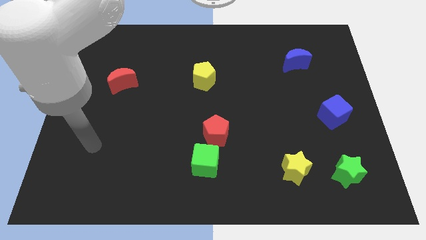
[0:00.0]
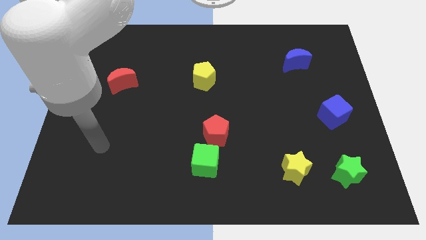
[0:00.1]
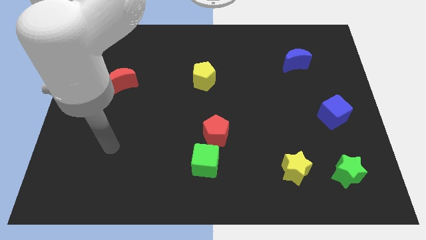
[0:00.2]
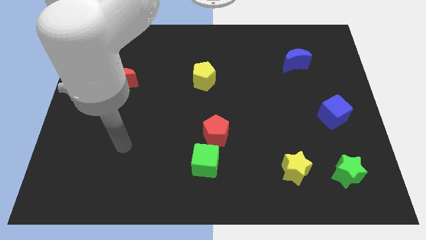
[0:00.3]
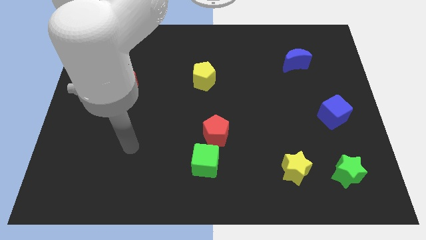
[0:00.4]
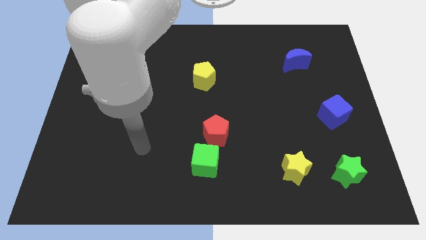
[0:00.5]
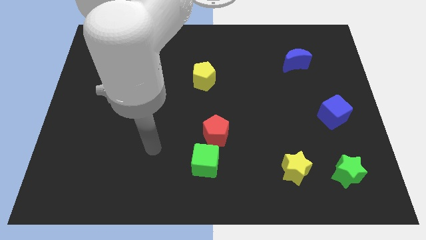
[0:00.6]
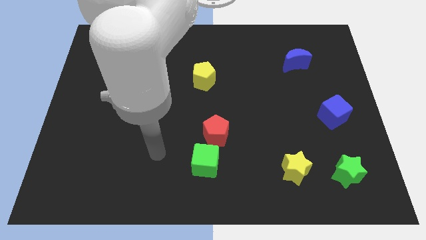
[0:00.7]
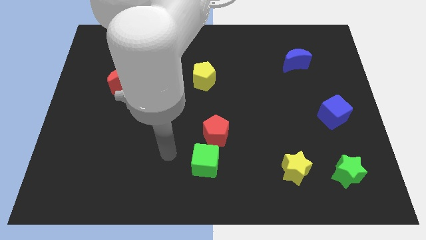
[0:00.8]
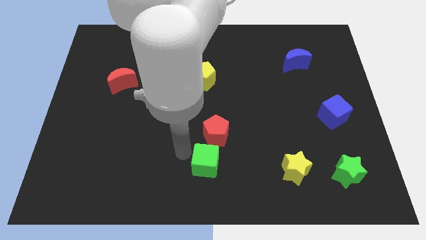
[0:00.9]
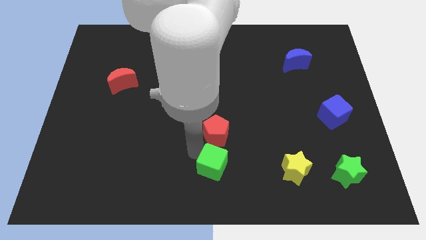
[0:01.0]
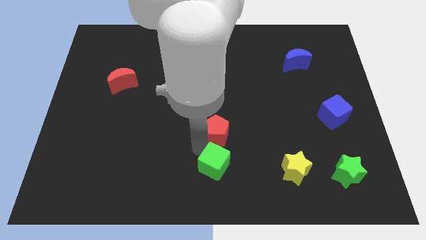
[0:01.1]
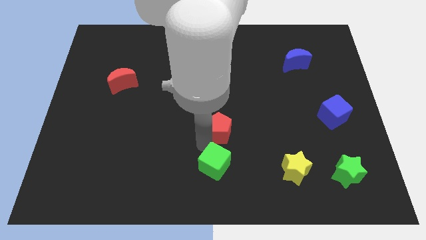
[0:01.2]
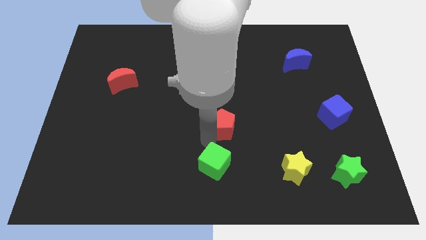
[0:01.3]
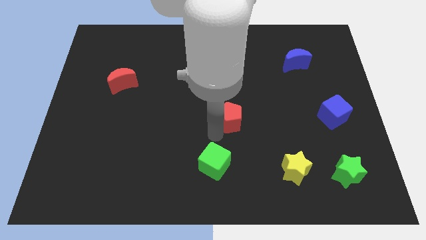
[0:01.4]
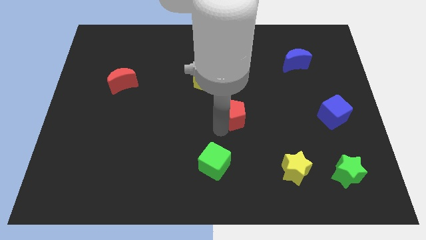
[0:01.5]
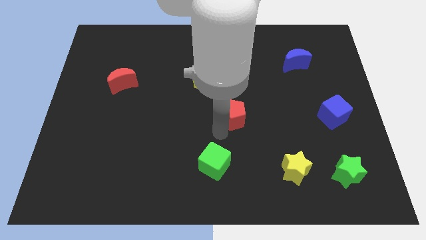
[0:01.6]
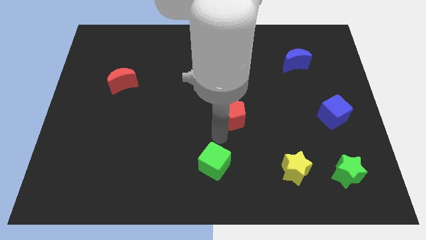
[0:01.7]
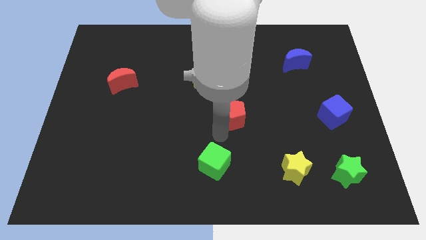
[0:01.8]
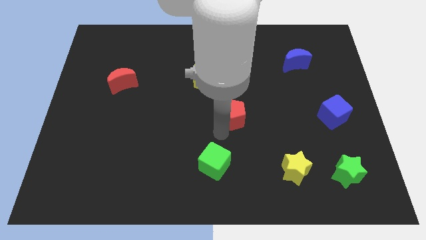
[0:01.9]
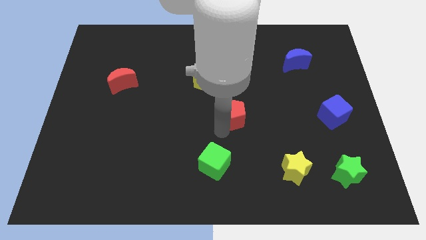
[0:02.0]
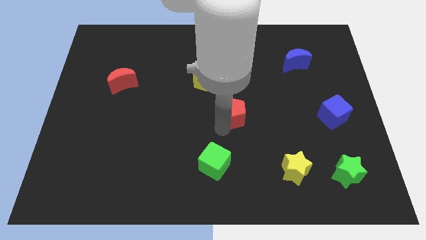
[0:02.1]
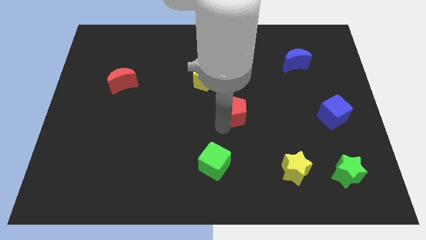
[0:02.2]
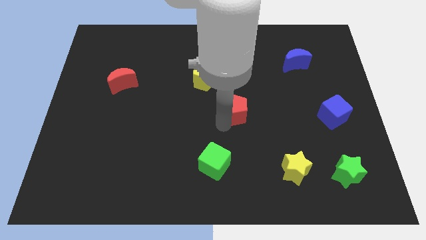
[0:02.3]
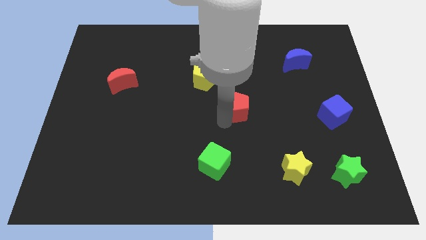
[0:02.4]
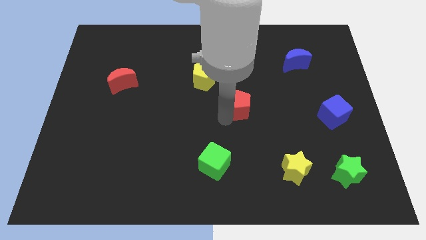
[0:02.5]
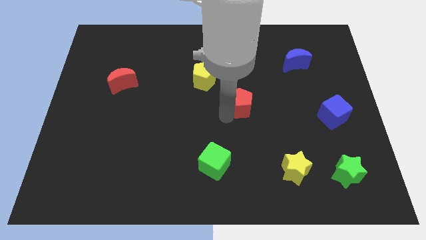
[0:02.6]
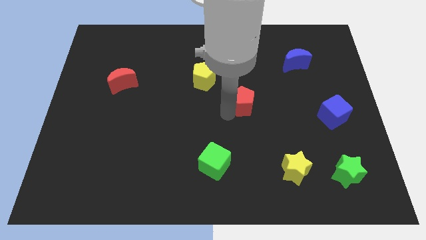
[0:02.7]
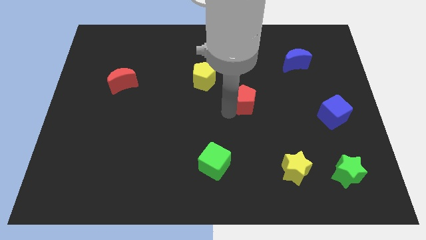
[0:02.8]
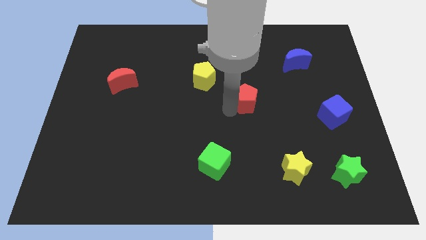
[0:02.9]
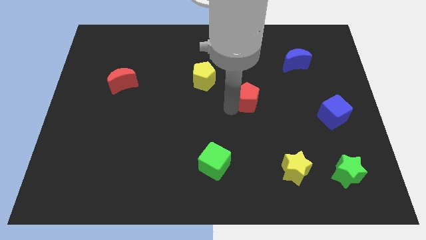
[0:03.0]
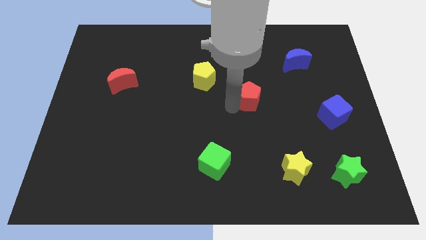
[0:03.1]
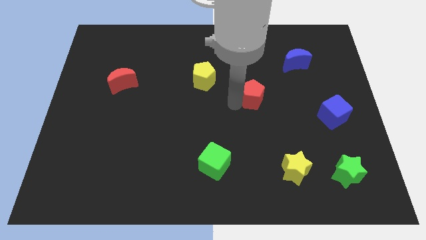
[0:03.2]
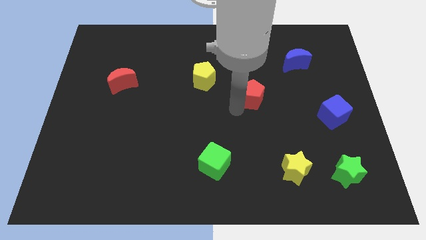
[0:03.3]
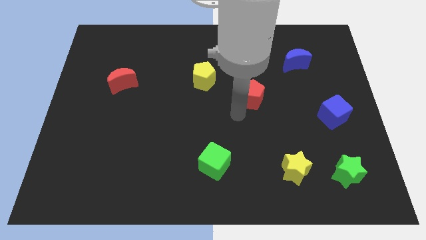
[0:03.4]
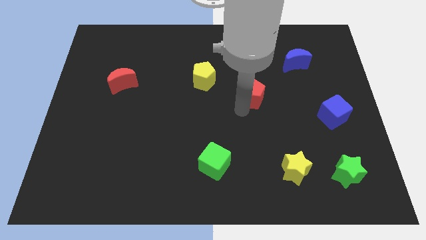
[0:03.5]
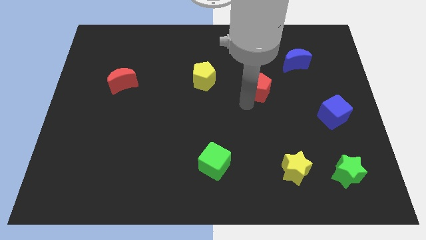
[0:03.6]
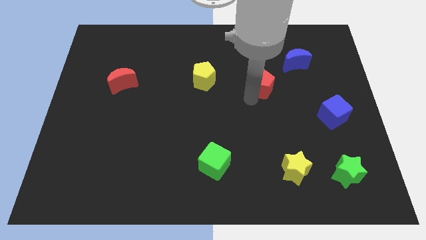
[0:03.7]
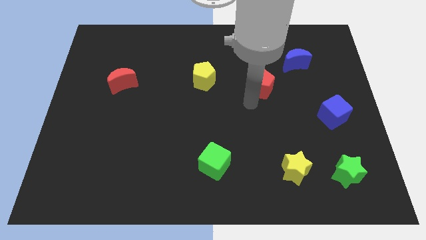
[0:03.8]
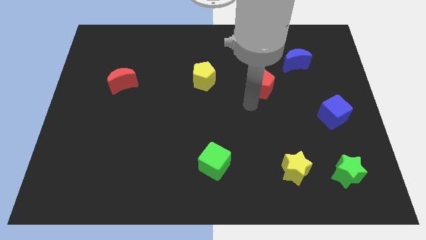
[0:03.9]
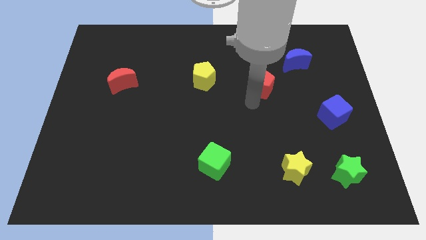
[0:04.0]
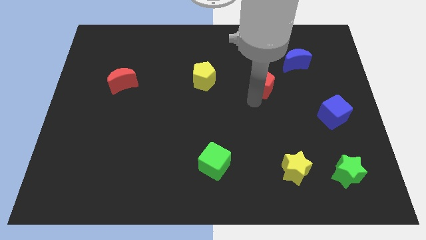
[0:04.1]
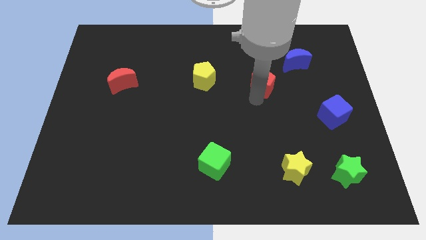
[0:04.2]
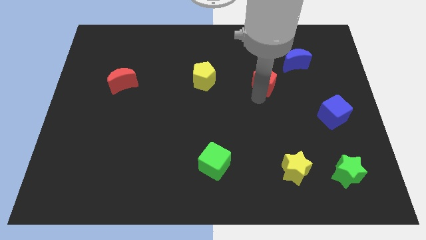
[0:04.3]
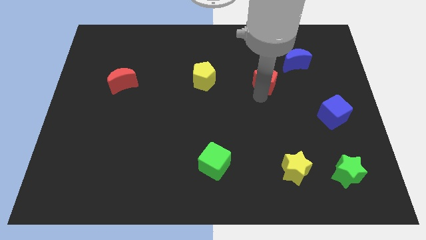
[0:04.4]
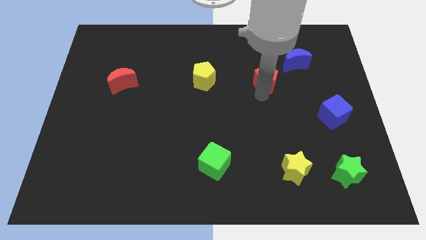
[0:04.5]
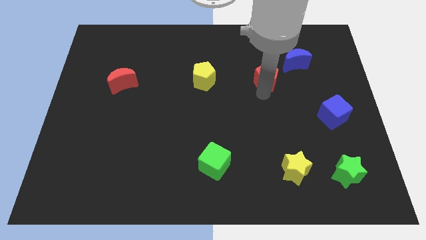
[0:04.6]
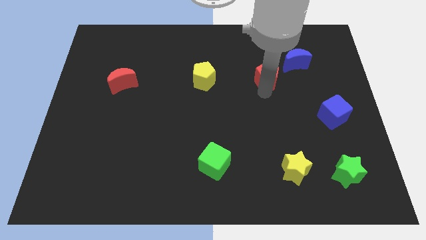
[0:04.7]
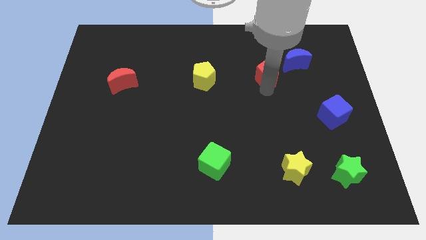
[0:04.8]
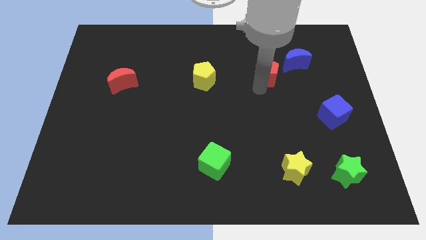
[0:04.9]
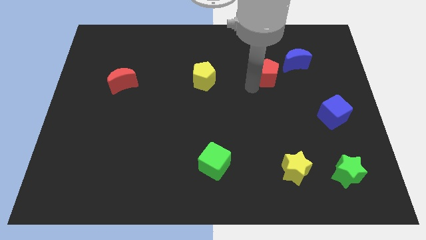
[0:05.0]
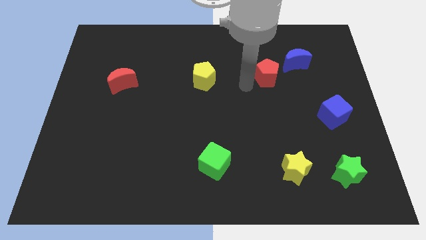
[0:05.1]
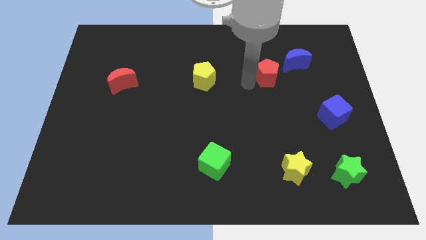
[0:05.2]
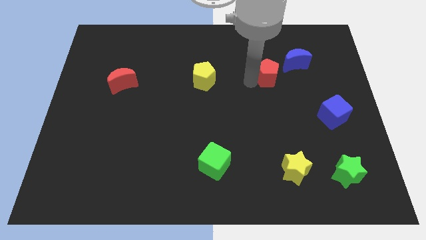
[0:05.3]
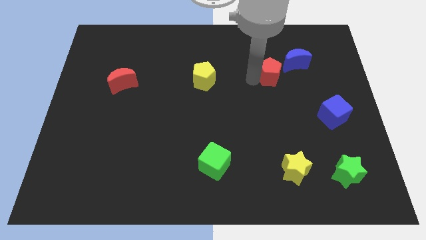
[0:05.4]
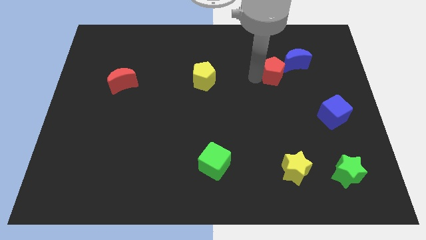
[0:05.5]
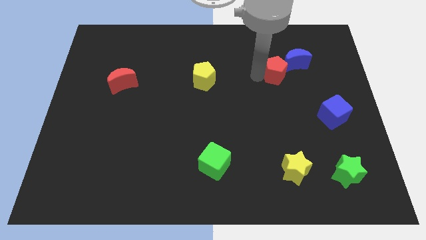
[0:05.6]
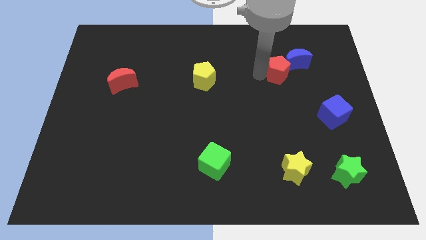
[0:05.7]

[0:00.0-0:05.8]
move the red pentagon close to the blue moon

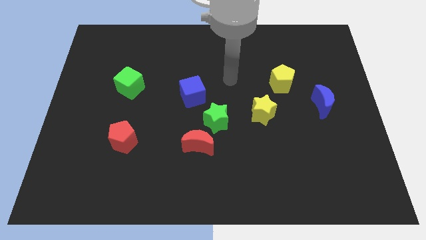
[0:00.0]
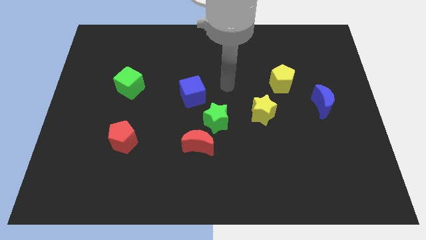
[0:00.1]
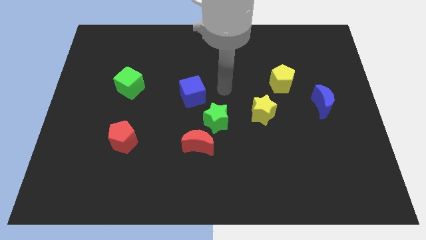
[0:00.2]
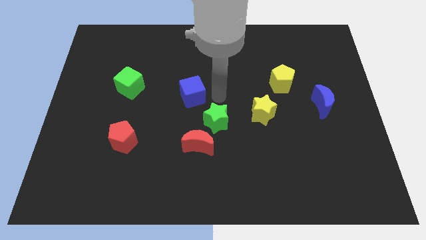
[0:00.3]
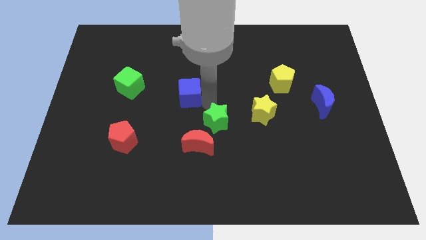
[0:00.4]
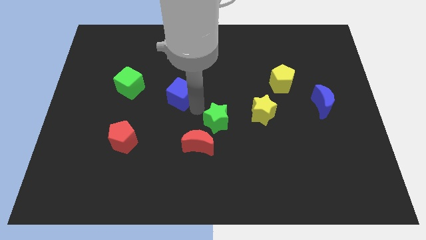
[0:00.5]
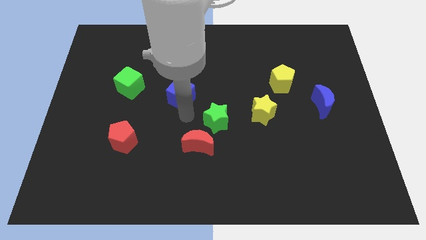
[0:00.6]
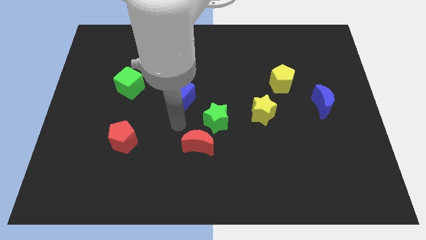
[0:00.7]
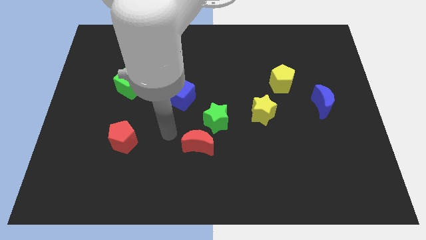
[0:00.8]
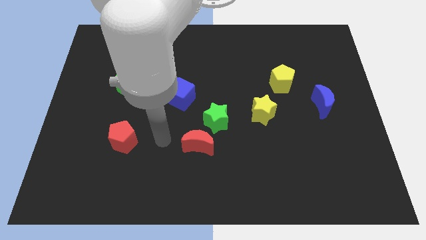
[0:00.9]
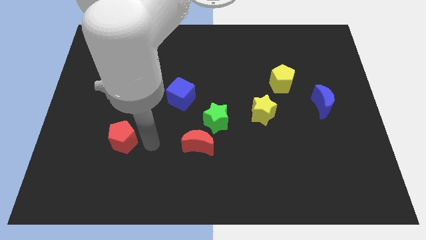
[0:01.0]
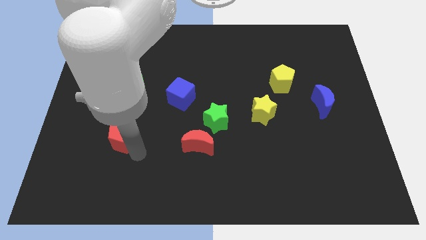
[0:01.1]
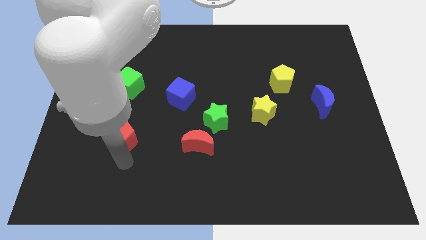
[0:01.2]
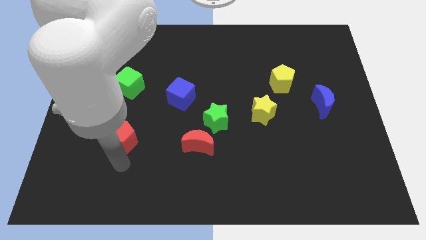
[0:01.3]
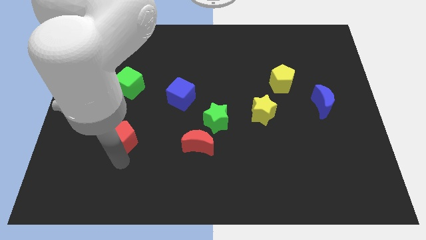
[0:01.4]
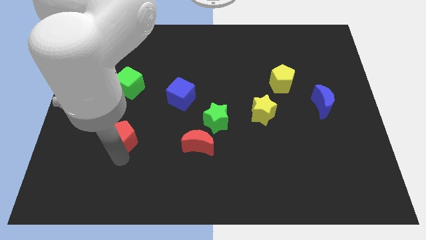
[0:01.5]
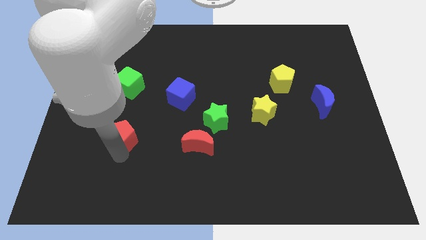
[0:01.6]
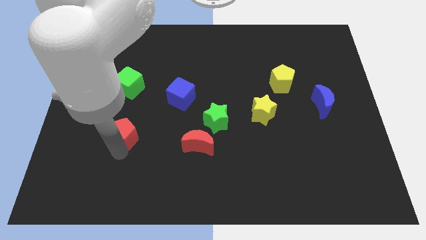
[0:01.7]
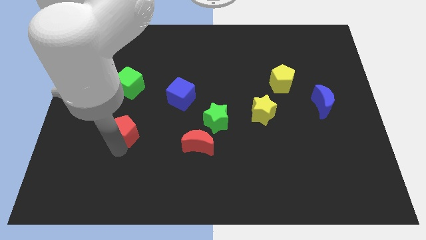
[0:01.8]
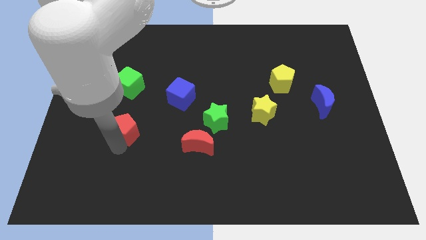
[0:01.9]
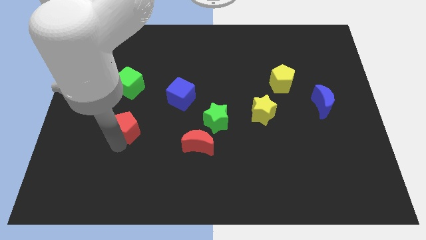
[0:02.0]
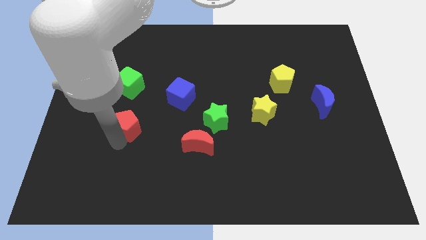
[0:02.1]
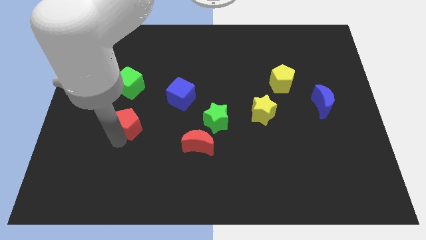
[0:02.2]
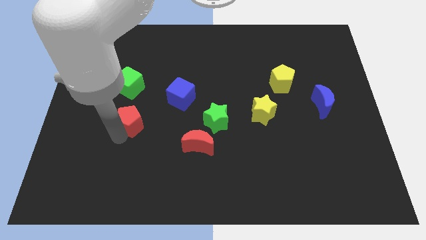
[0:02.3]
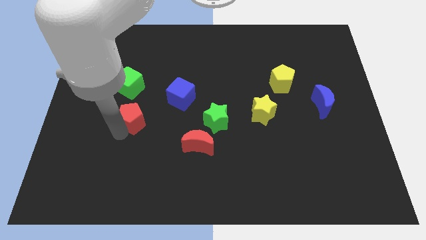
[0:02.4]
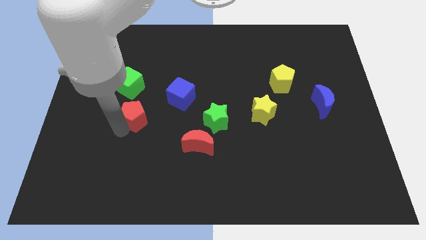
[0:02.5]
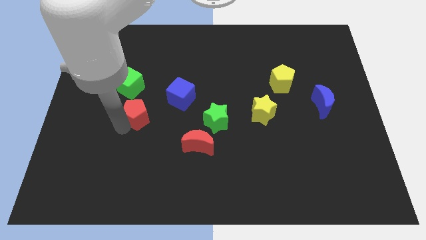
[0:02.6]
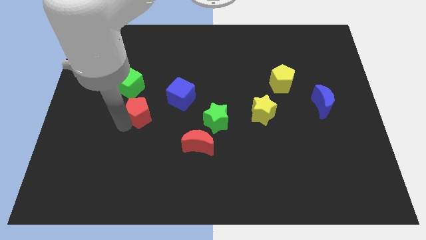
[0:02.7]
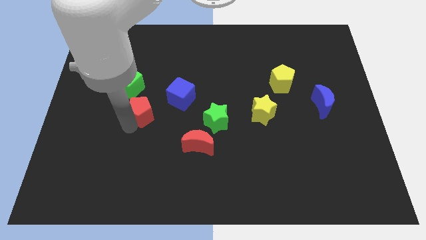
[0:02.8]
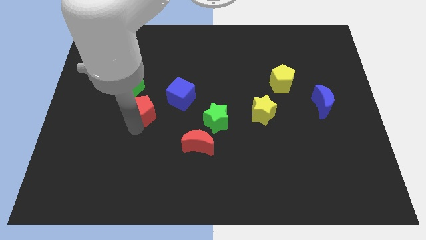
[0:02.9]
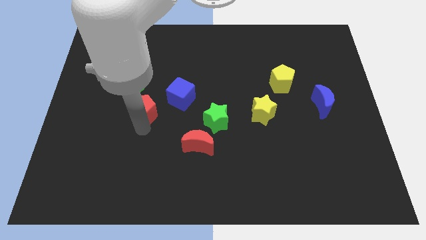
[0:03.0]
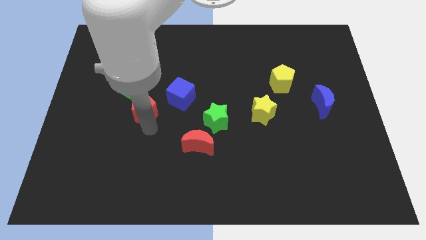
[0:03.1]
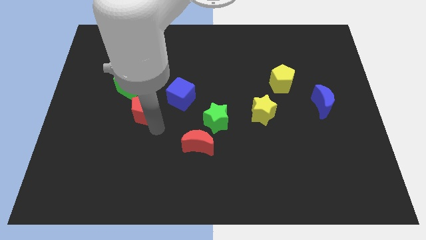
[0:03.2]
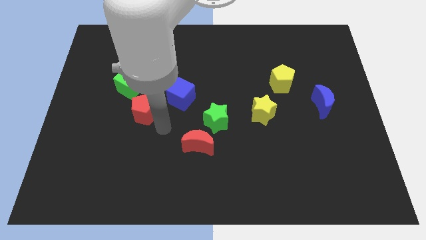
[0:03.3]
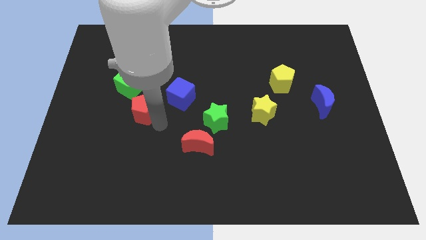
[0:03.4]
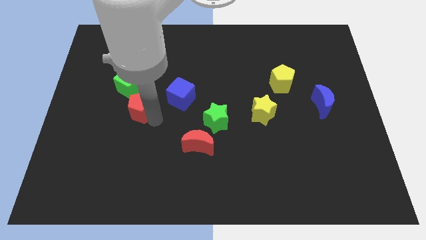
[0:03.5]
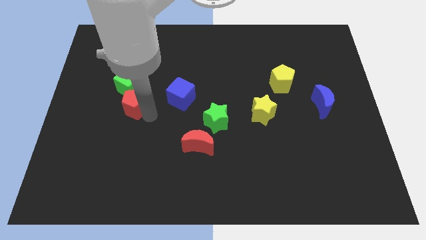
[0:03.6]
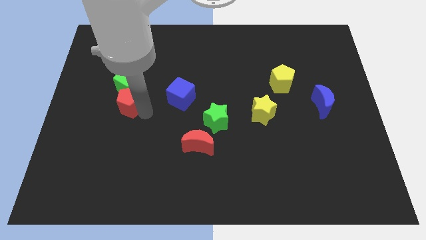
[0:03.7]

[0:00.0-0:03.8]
push the red pentagon towards the green cube
